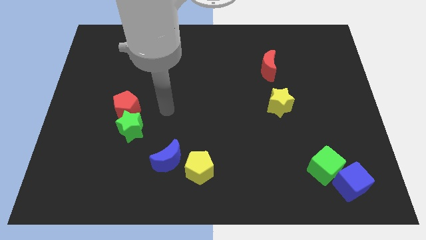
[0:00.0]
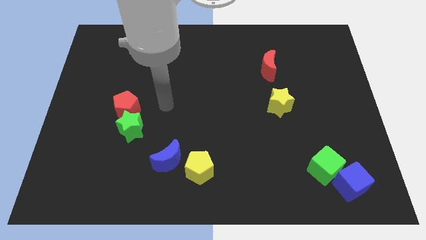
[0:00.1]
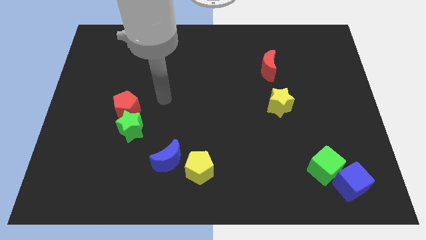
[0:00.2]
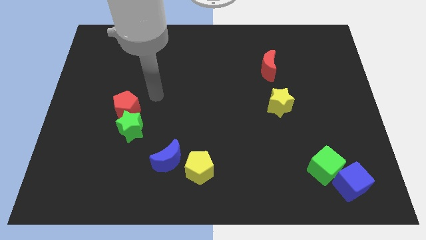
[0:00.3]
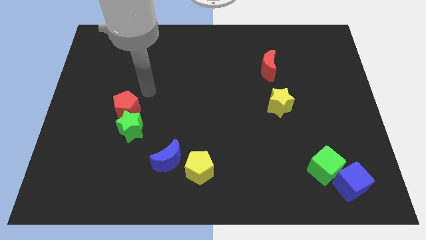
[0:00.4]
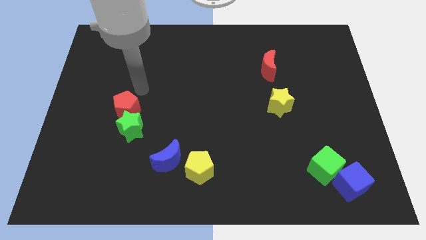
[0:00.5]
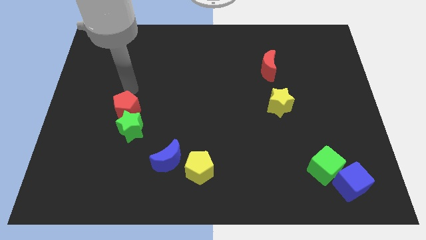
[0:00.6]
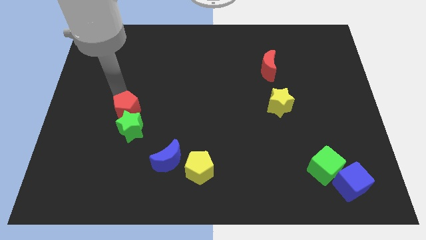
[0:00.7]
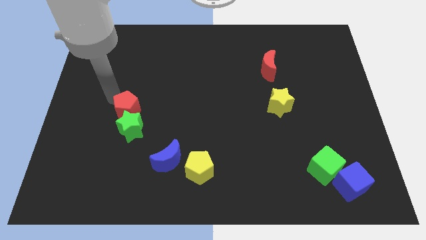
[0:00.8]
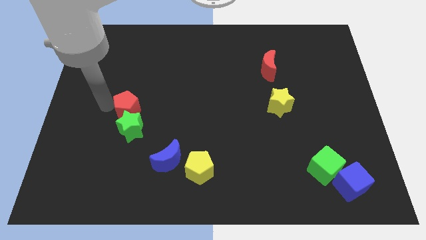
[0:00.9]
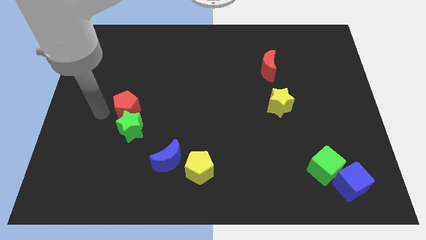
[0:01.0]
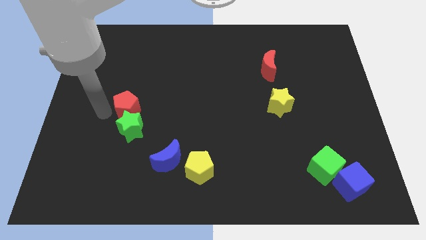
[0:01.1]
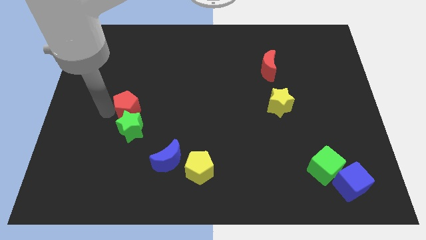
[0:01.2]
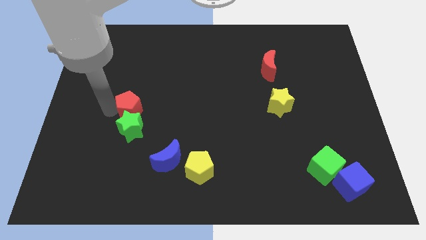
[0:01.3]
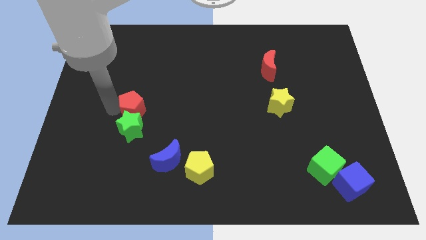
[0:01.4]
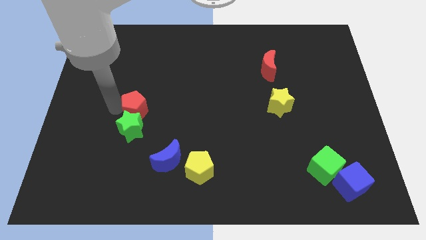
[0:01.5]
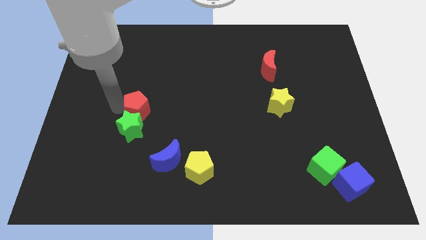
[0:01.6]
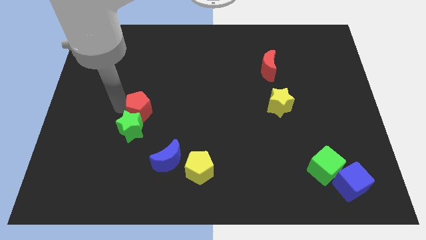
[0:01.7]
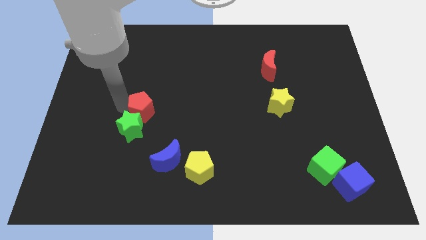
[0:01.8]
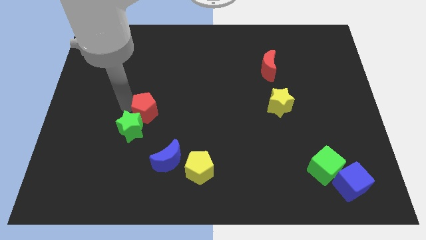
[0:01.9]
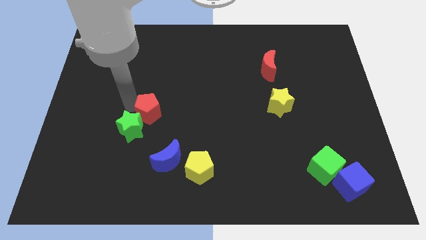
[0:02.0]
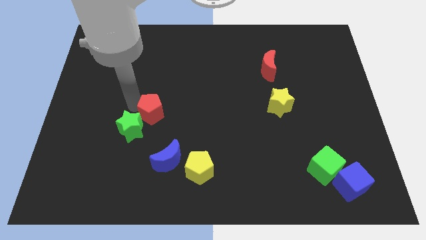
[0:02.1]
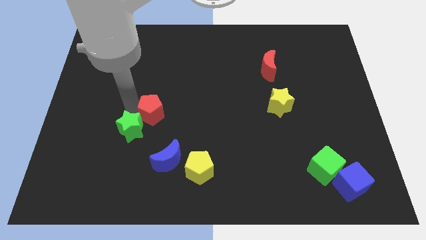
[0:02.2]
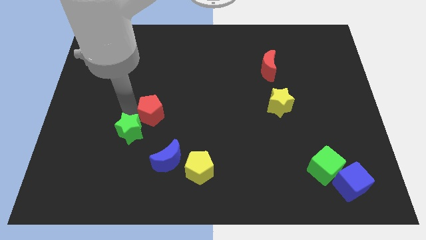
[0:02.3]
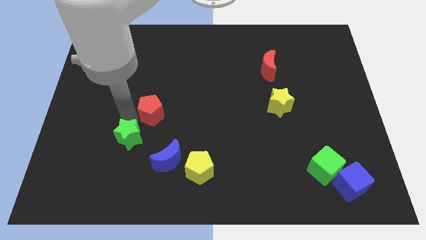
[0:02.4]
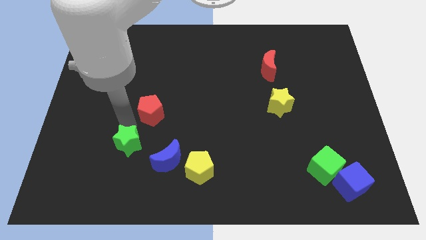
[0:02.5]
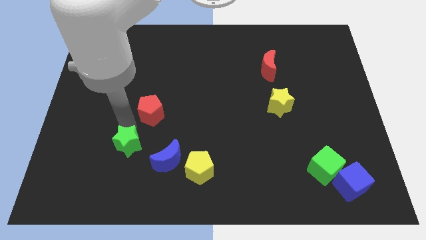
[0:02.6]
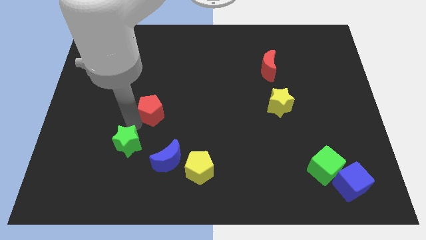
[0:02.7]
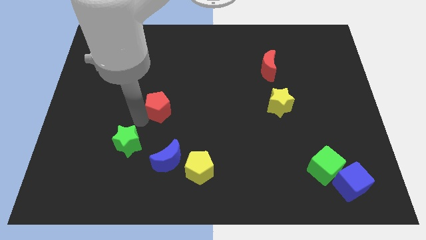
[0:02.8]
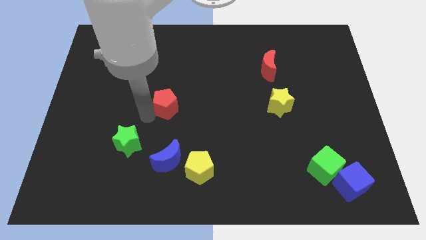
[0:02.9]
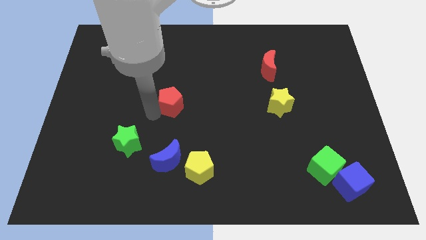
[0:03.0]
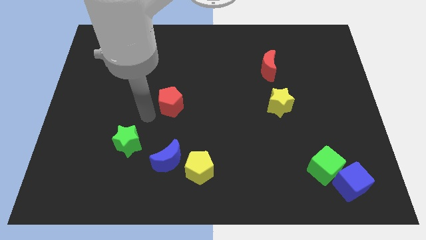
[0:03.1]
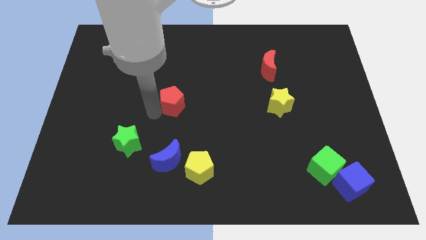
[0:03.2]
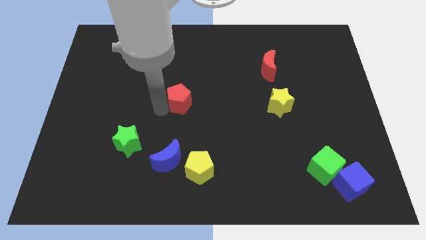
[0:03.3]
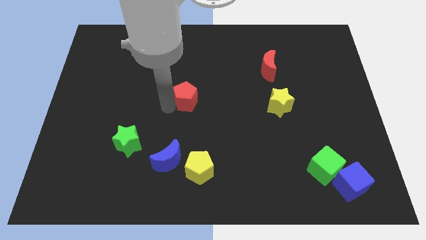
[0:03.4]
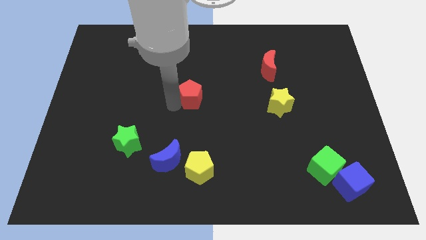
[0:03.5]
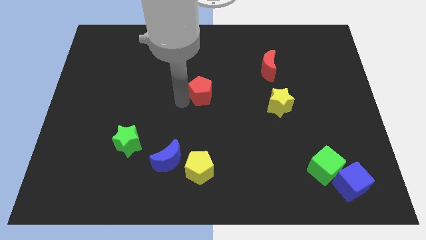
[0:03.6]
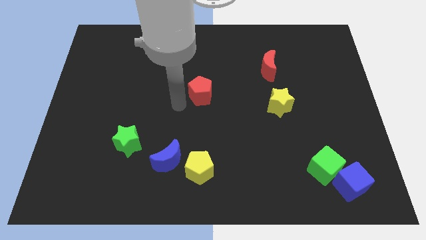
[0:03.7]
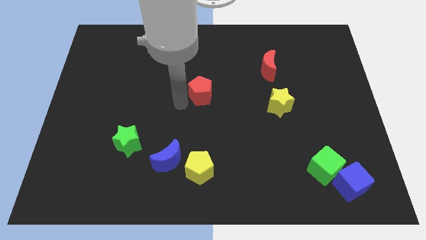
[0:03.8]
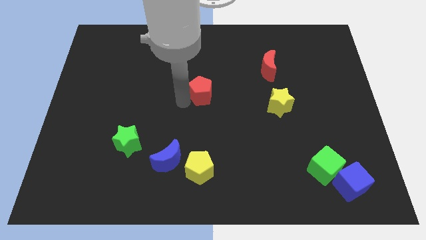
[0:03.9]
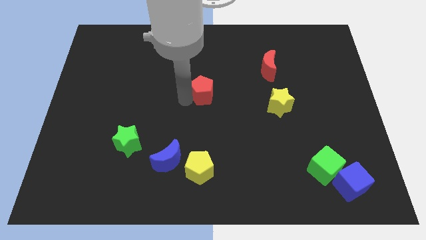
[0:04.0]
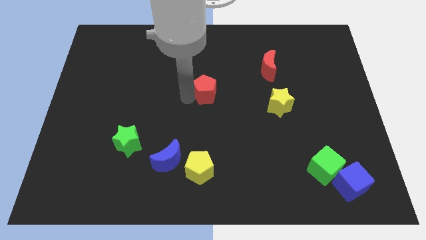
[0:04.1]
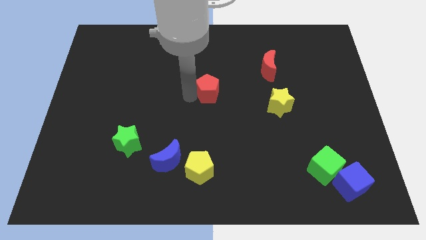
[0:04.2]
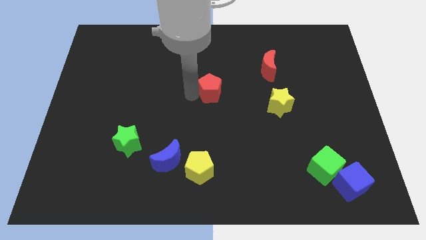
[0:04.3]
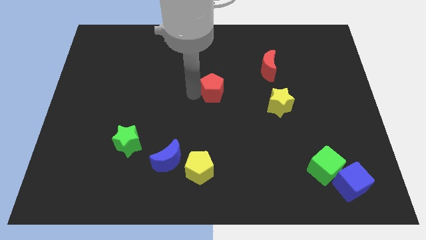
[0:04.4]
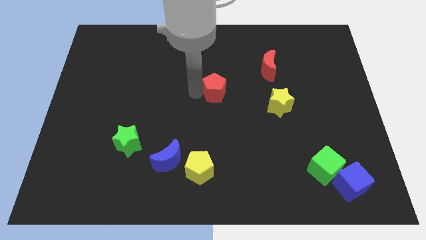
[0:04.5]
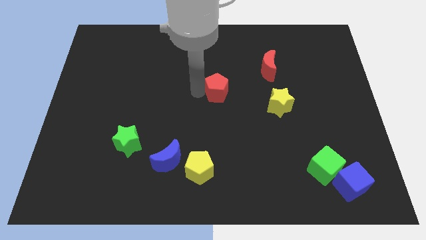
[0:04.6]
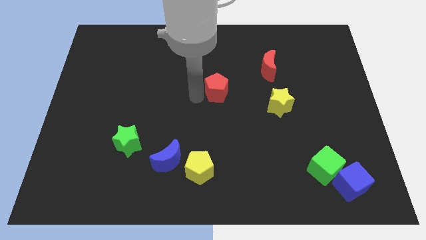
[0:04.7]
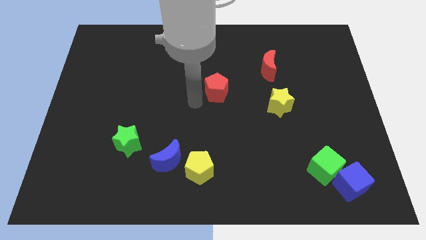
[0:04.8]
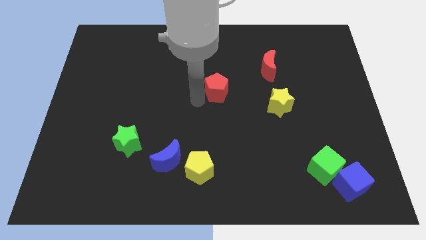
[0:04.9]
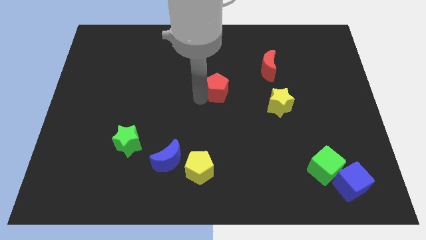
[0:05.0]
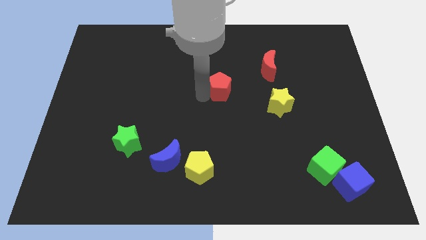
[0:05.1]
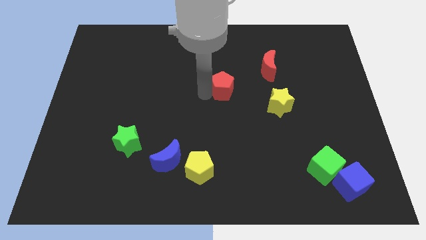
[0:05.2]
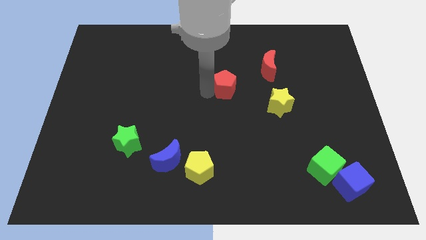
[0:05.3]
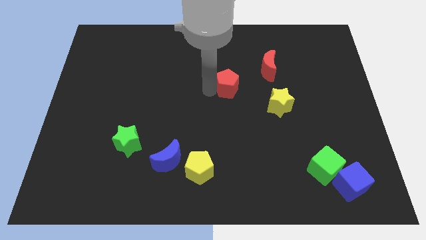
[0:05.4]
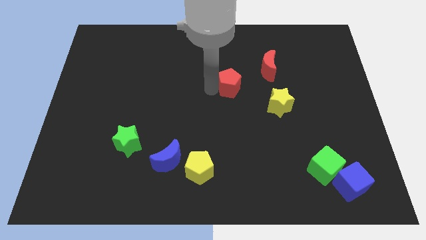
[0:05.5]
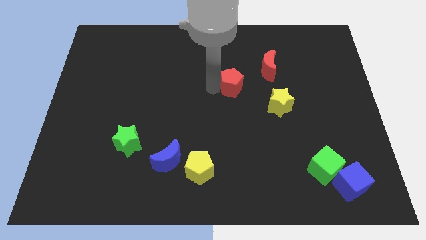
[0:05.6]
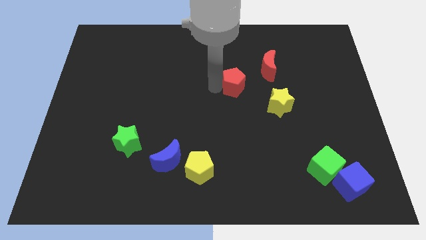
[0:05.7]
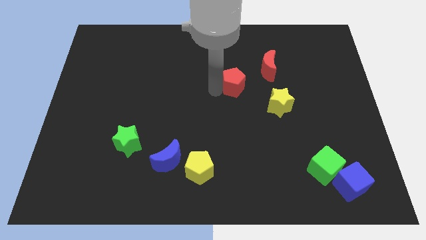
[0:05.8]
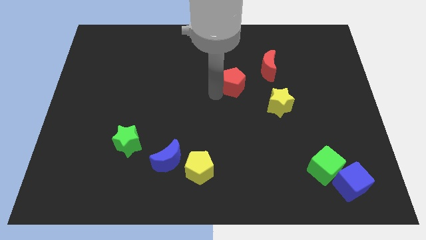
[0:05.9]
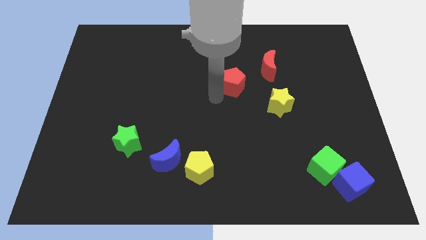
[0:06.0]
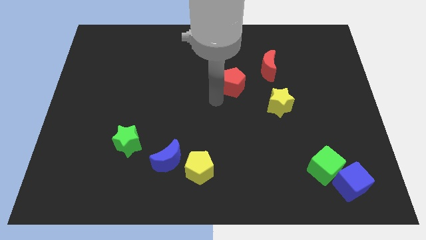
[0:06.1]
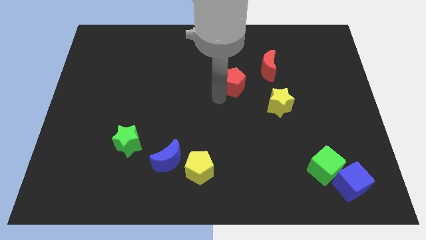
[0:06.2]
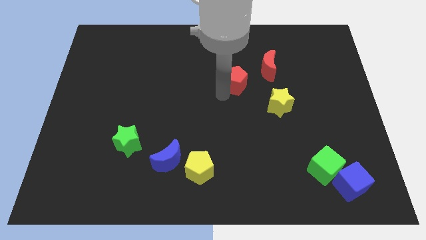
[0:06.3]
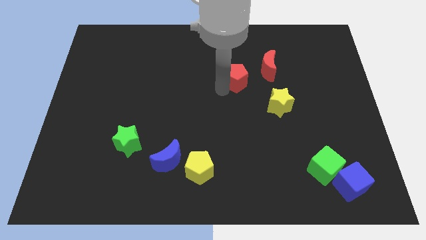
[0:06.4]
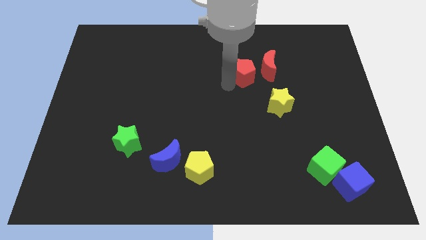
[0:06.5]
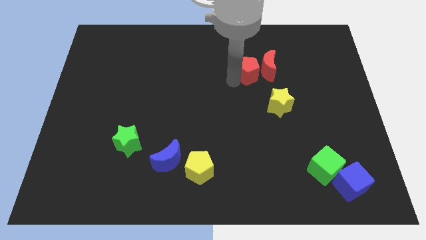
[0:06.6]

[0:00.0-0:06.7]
push the red pentagon next to the red moon

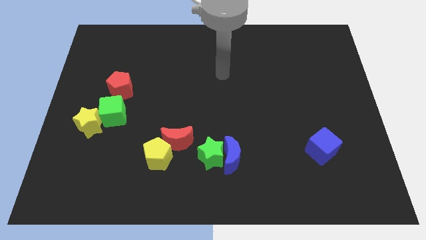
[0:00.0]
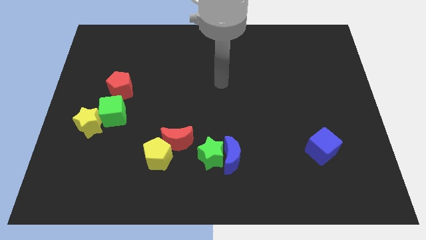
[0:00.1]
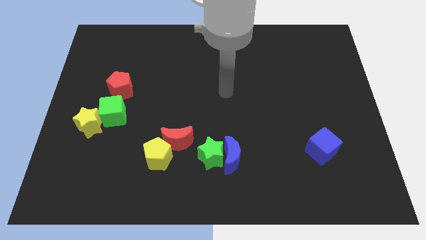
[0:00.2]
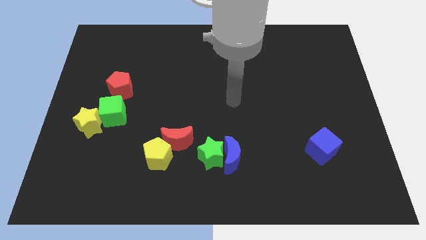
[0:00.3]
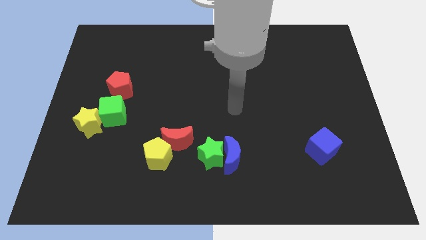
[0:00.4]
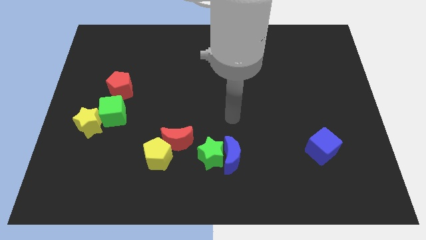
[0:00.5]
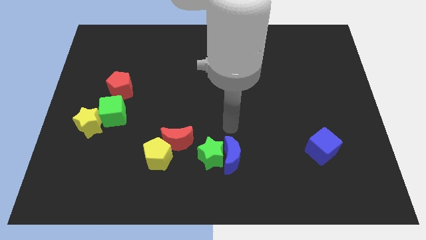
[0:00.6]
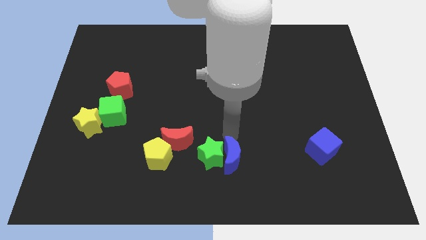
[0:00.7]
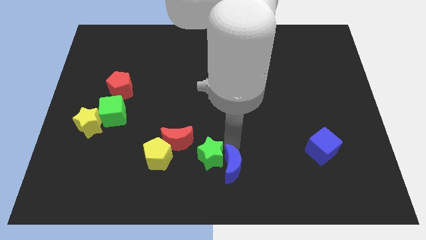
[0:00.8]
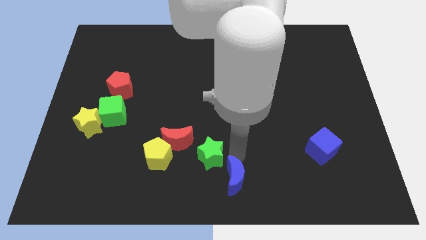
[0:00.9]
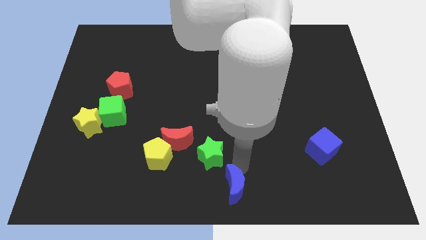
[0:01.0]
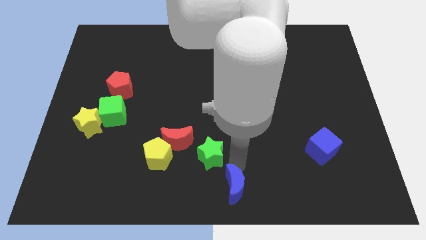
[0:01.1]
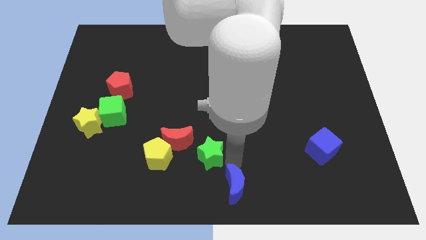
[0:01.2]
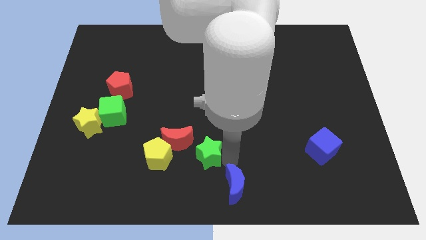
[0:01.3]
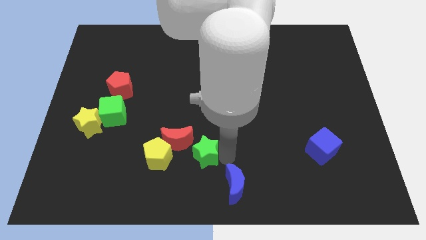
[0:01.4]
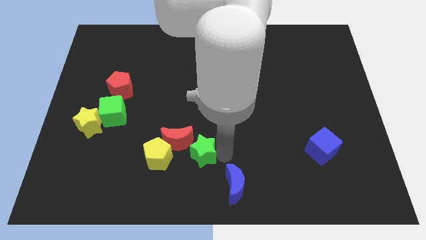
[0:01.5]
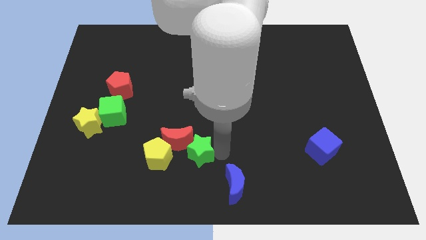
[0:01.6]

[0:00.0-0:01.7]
move the green star next to the red moon
